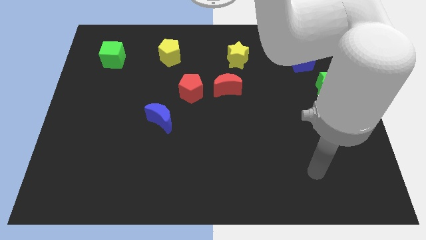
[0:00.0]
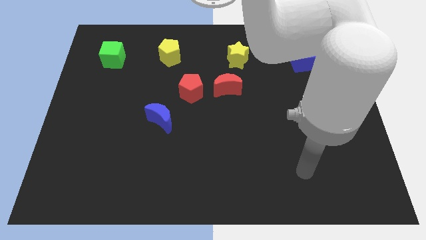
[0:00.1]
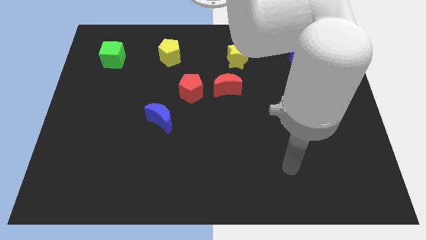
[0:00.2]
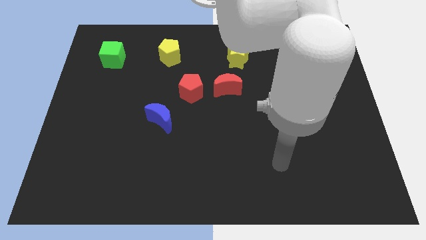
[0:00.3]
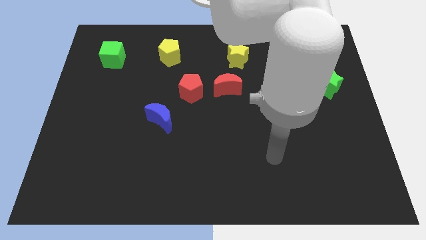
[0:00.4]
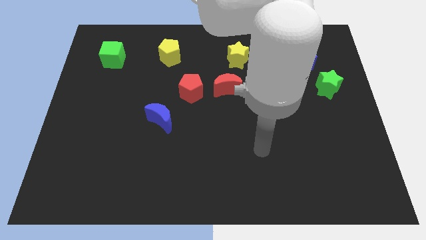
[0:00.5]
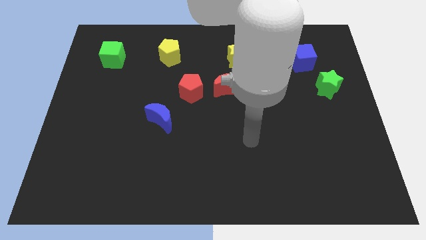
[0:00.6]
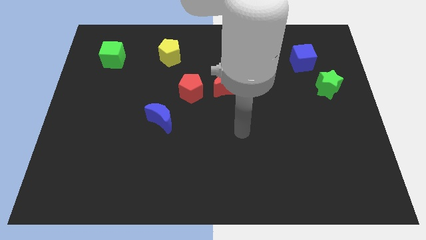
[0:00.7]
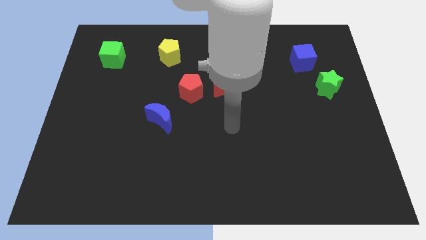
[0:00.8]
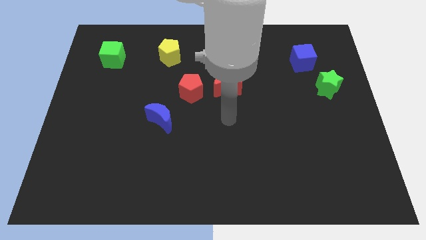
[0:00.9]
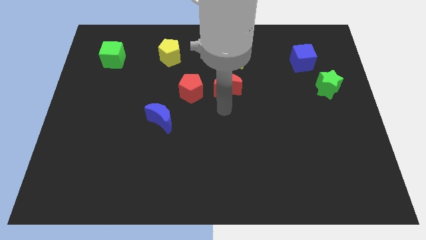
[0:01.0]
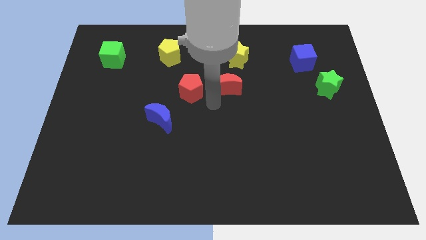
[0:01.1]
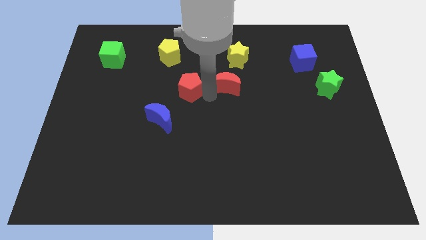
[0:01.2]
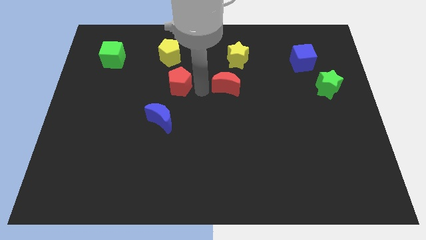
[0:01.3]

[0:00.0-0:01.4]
move the red moon away from the red pentagon

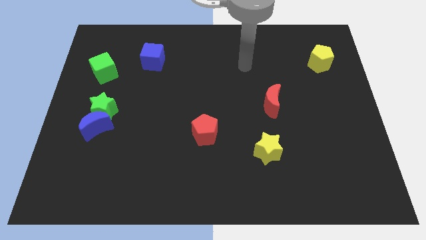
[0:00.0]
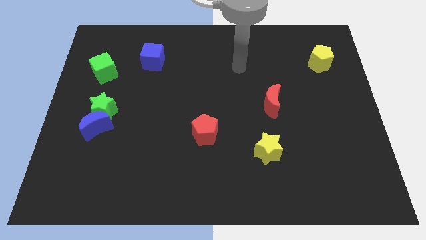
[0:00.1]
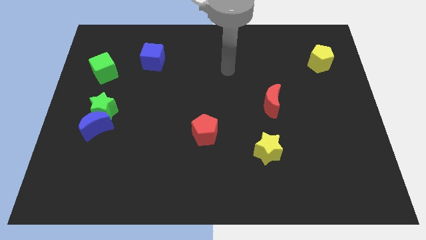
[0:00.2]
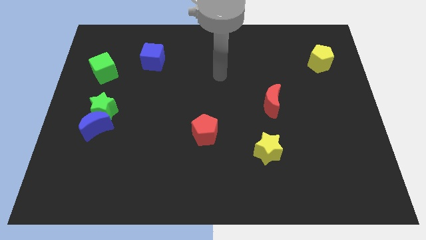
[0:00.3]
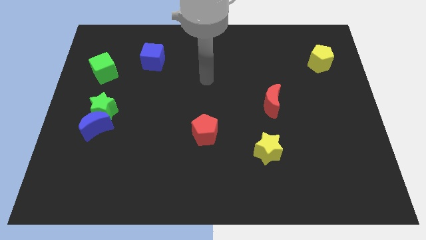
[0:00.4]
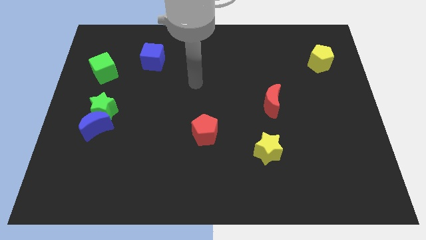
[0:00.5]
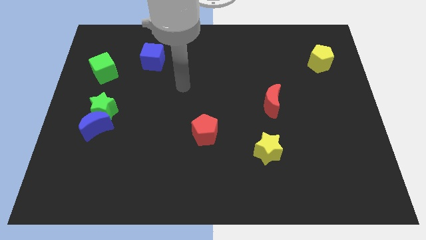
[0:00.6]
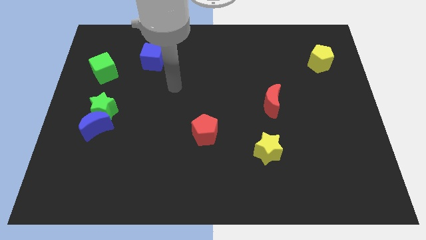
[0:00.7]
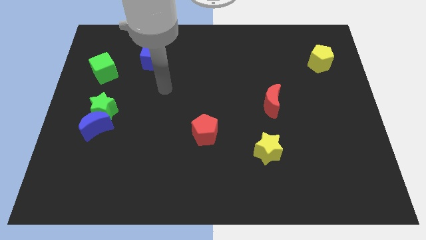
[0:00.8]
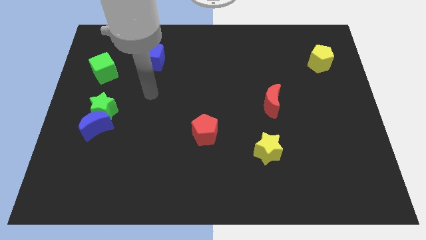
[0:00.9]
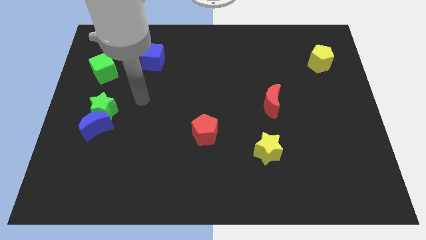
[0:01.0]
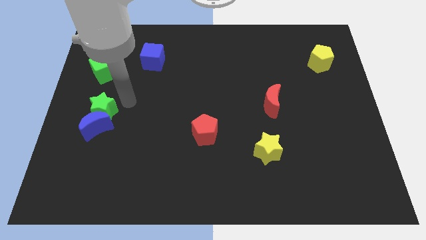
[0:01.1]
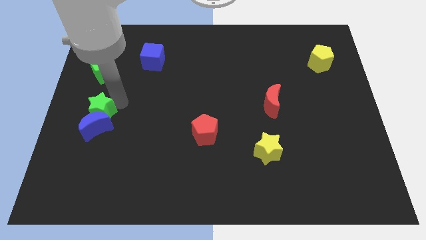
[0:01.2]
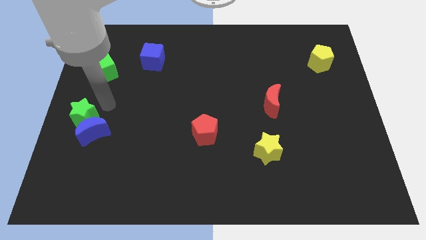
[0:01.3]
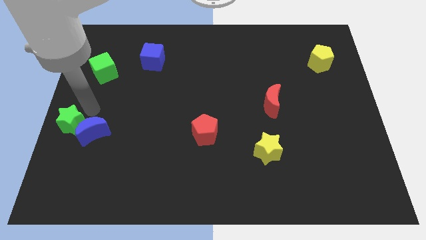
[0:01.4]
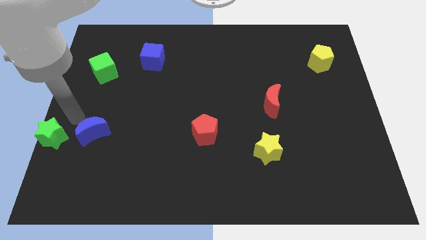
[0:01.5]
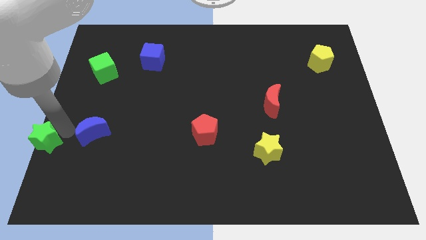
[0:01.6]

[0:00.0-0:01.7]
separate the blue moon from the green star

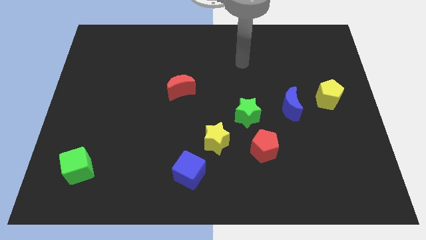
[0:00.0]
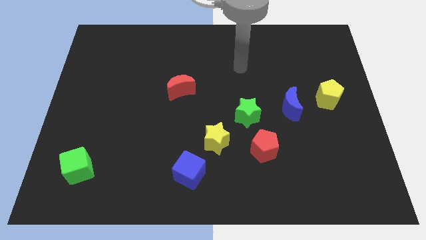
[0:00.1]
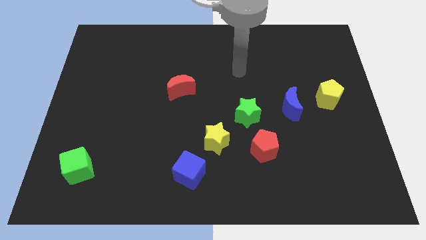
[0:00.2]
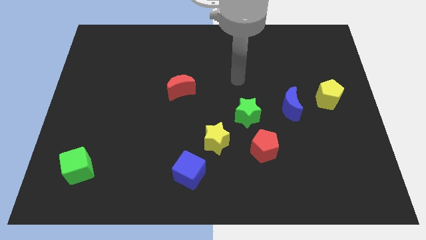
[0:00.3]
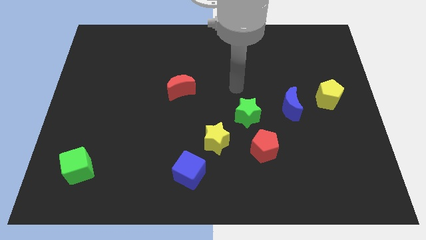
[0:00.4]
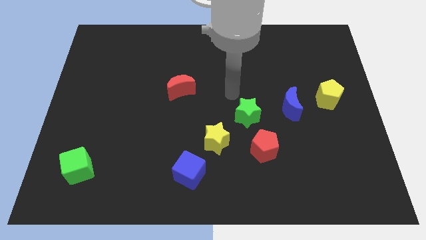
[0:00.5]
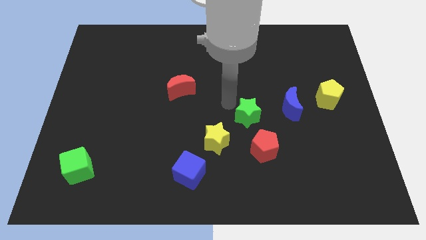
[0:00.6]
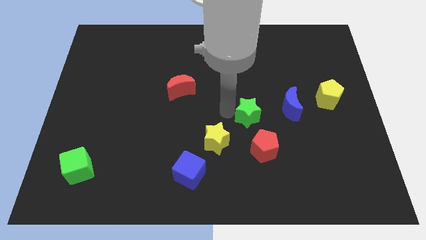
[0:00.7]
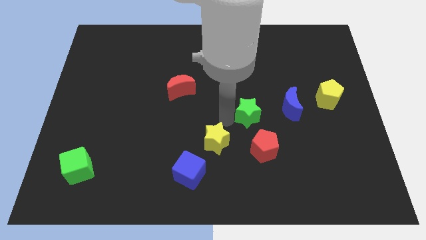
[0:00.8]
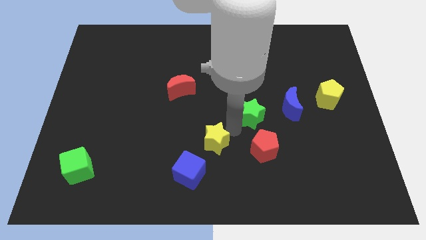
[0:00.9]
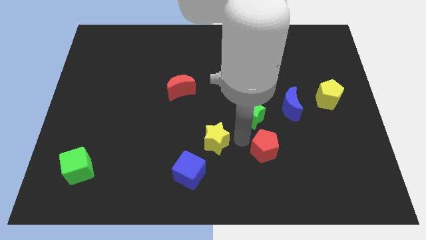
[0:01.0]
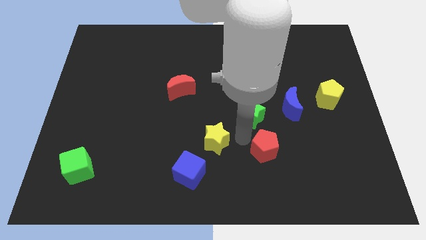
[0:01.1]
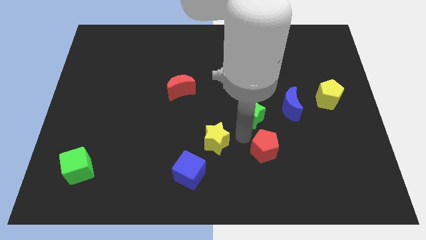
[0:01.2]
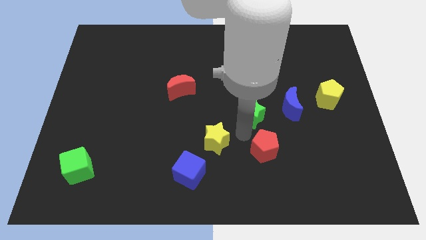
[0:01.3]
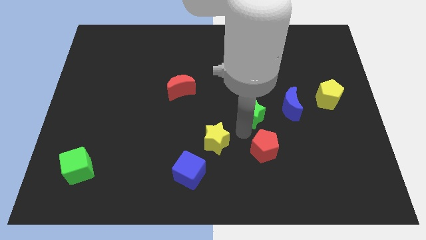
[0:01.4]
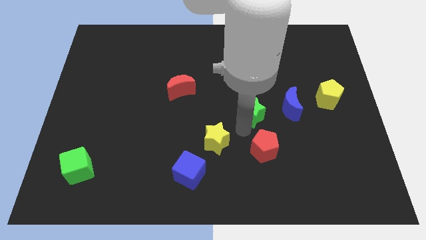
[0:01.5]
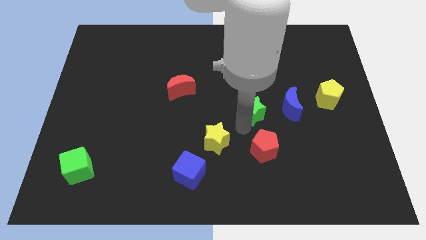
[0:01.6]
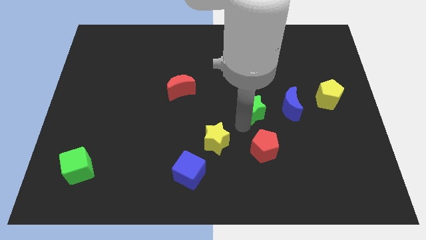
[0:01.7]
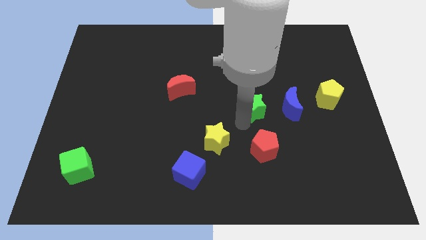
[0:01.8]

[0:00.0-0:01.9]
move the green star away from the red pentagon and yellow star

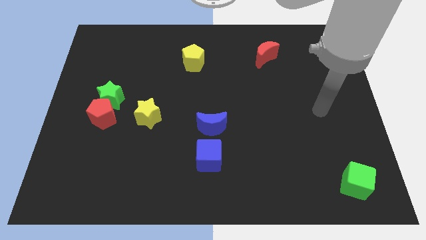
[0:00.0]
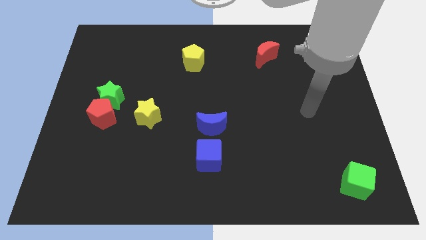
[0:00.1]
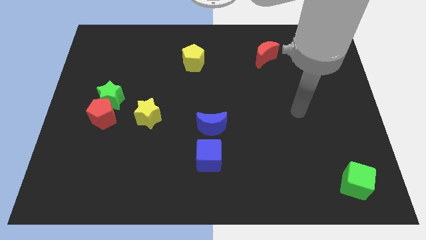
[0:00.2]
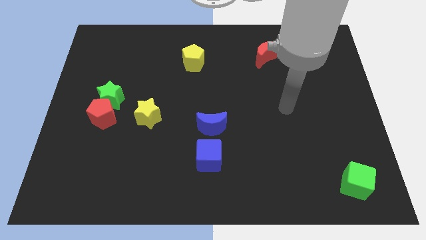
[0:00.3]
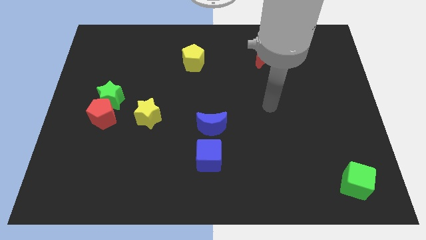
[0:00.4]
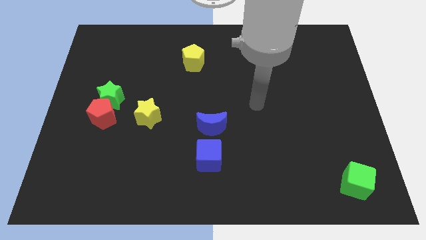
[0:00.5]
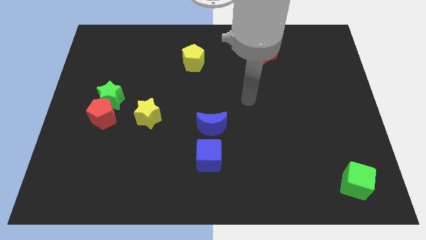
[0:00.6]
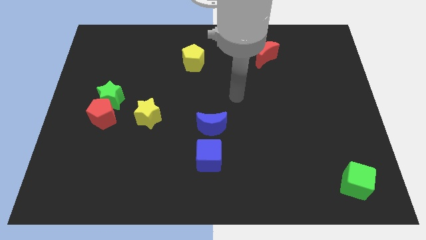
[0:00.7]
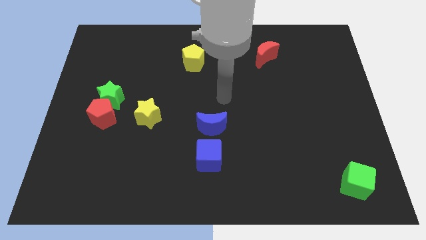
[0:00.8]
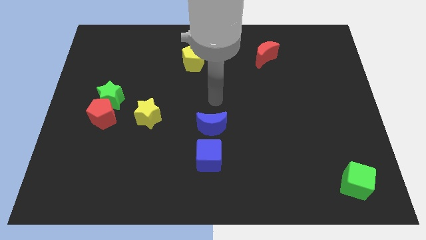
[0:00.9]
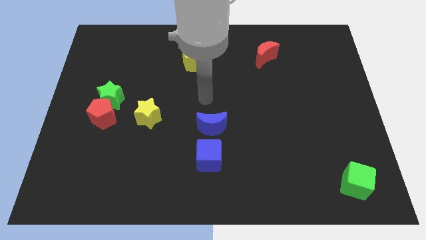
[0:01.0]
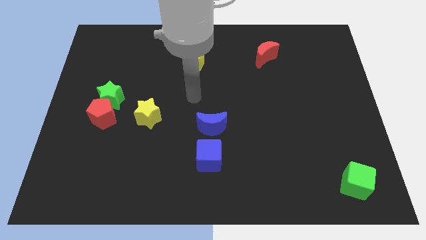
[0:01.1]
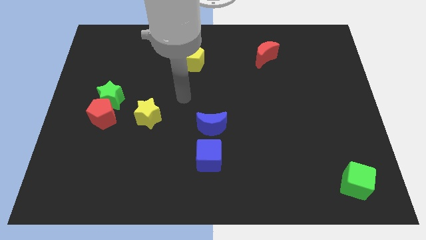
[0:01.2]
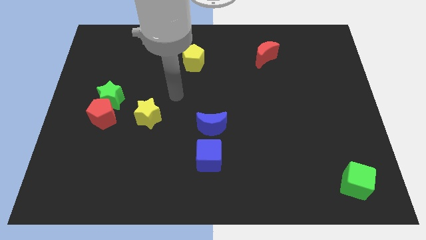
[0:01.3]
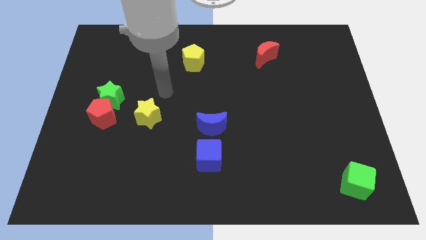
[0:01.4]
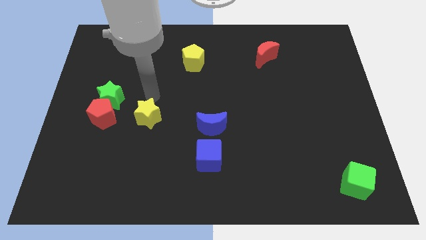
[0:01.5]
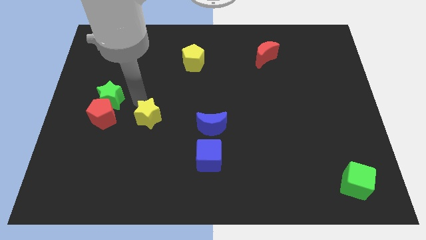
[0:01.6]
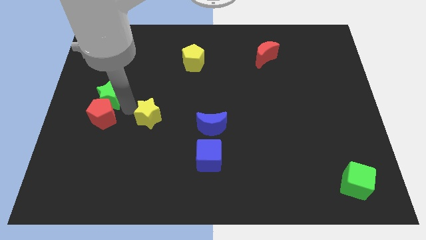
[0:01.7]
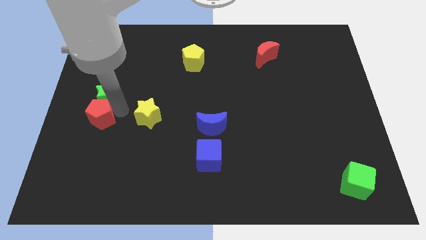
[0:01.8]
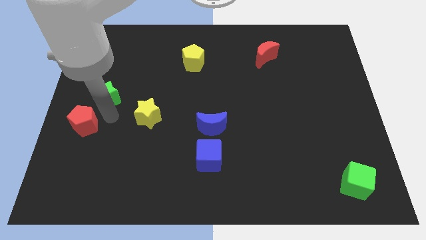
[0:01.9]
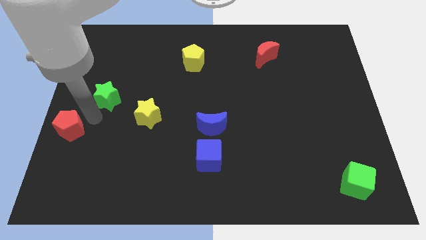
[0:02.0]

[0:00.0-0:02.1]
move the green star away from the red pentagon

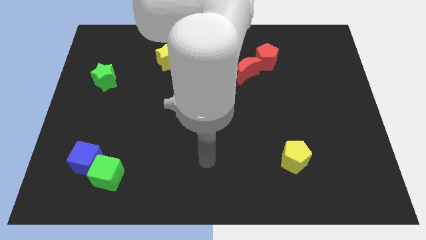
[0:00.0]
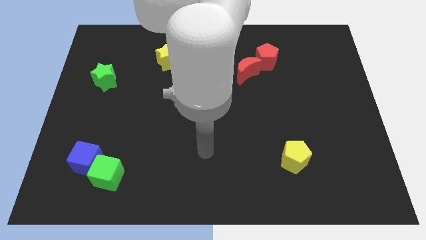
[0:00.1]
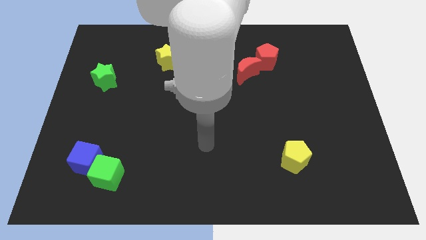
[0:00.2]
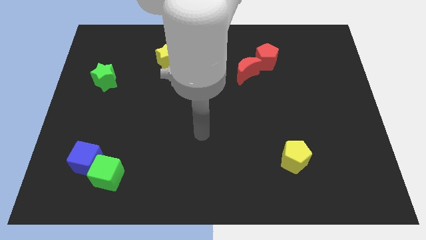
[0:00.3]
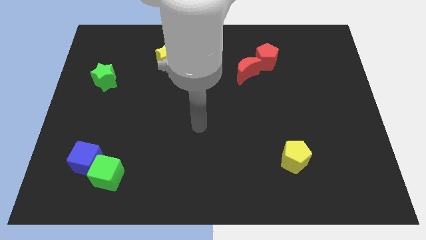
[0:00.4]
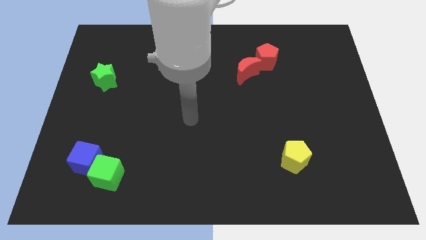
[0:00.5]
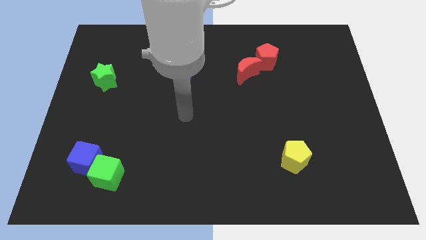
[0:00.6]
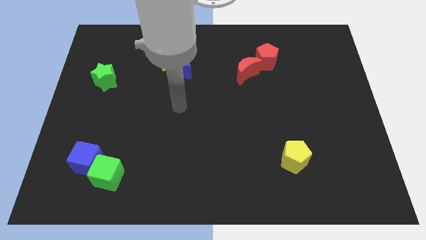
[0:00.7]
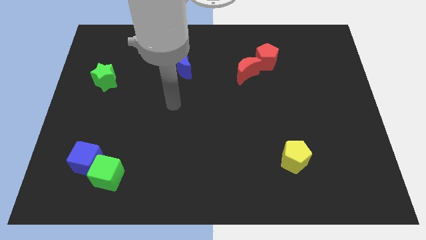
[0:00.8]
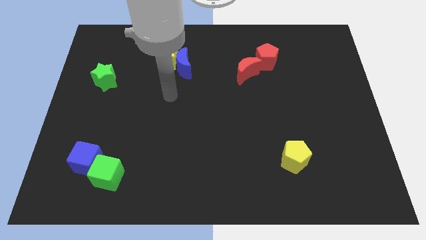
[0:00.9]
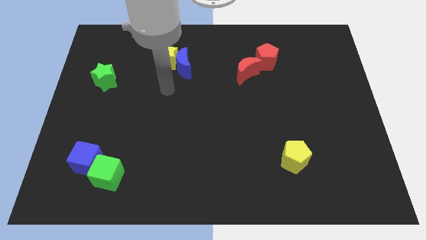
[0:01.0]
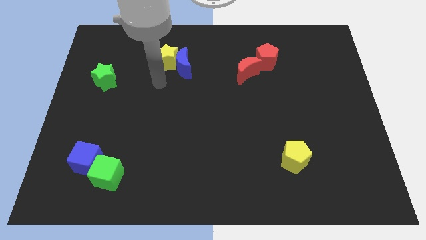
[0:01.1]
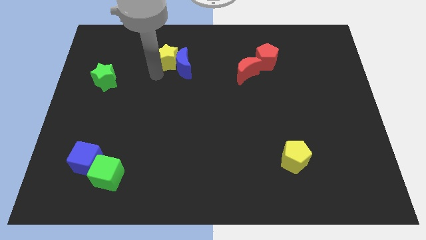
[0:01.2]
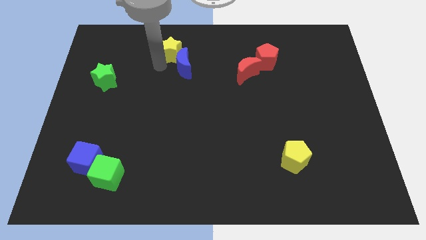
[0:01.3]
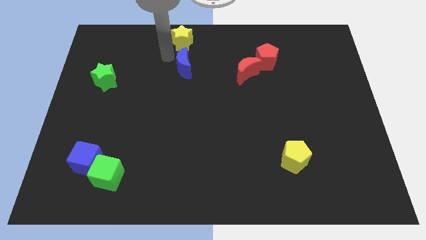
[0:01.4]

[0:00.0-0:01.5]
move the blue moon away from the yellow star

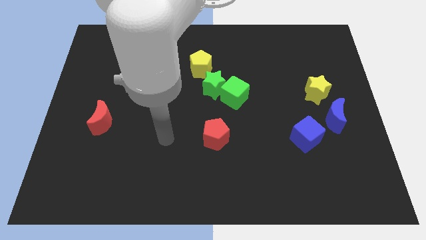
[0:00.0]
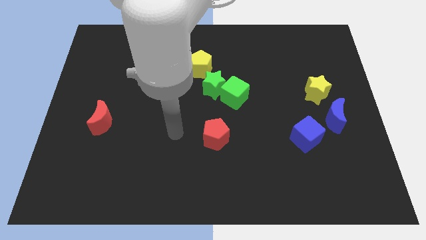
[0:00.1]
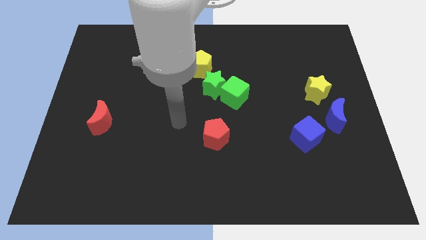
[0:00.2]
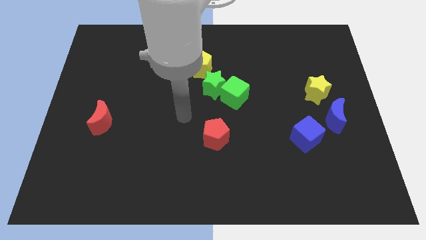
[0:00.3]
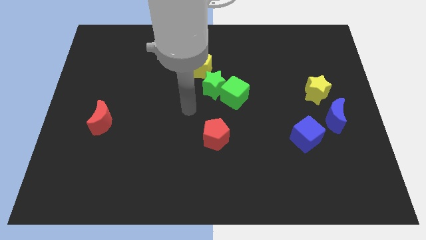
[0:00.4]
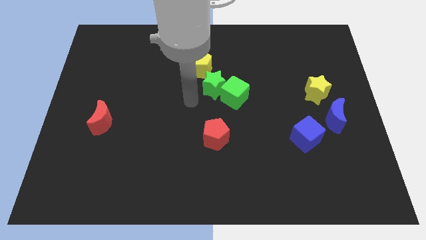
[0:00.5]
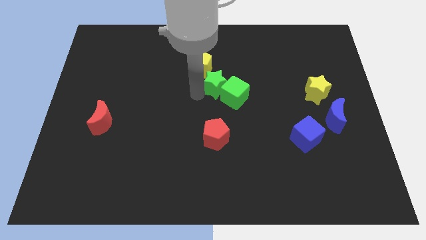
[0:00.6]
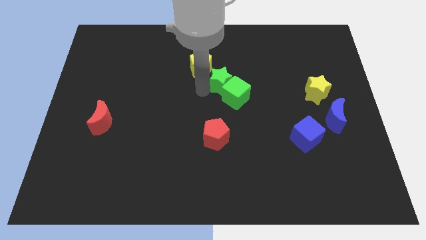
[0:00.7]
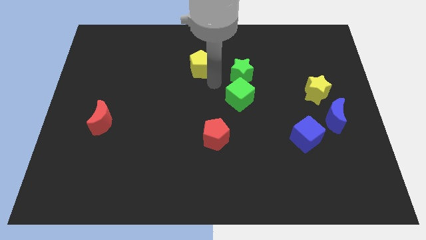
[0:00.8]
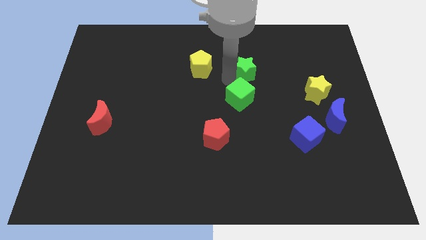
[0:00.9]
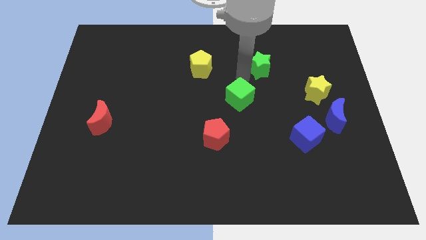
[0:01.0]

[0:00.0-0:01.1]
pull the green cube apart from the green star
